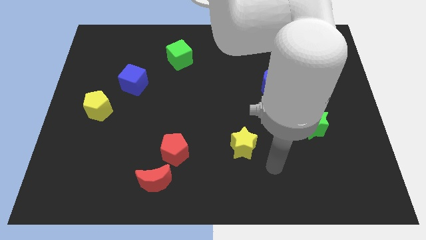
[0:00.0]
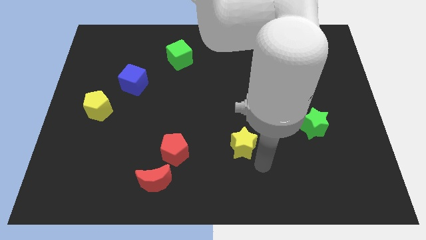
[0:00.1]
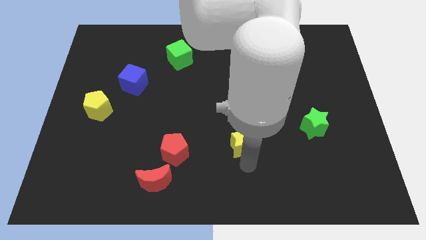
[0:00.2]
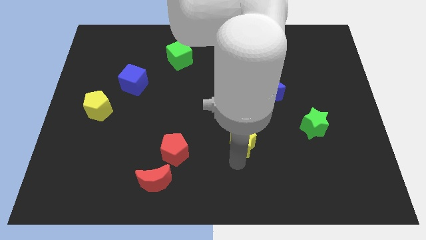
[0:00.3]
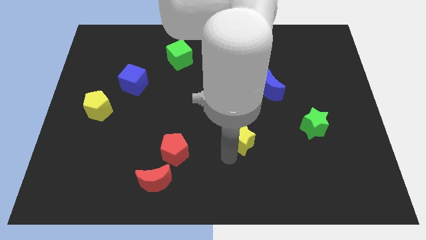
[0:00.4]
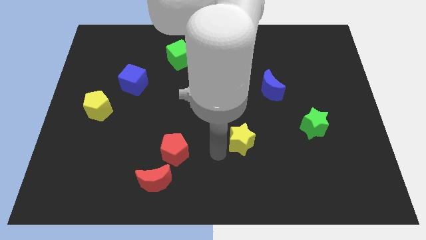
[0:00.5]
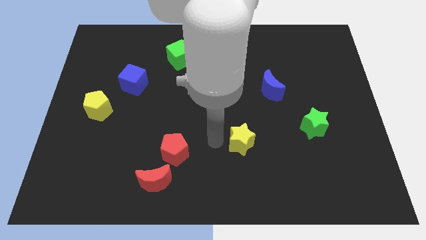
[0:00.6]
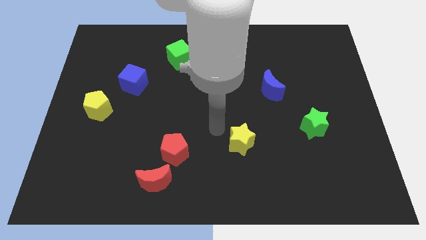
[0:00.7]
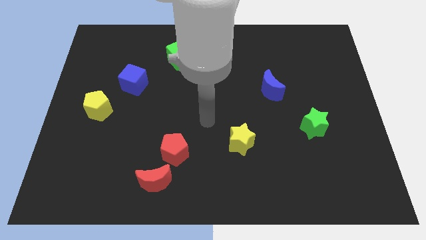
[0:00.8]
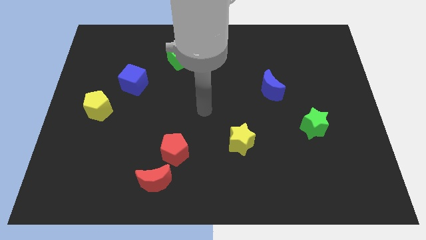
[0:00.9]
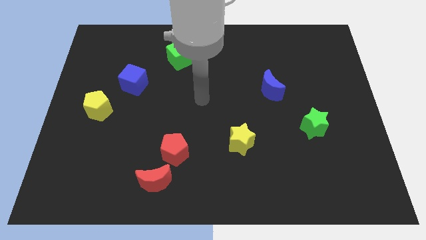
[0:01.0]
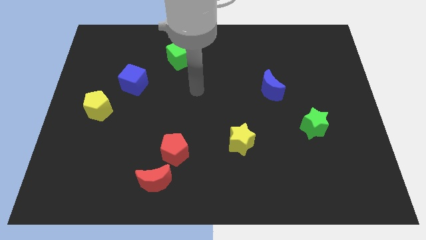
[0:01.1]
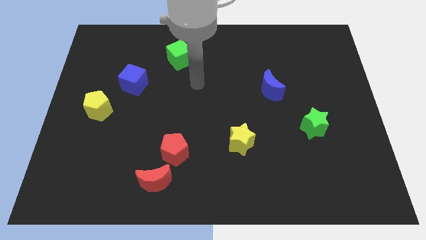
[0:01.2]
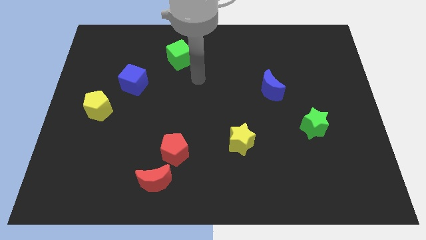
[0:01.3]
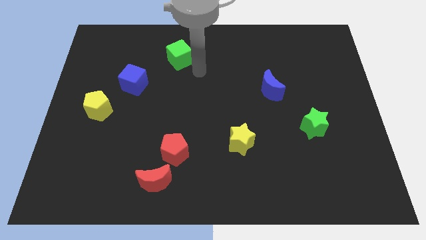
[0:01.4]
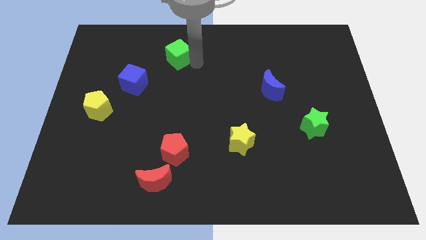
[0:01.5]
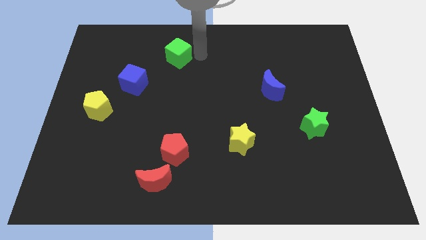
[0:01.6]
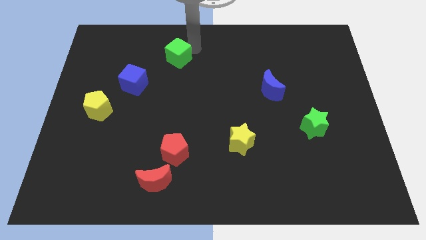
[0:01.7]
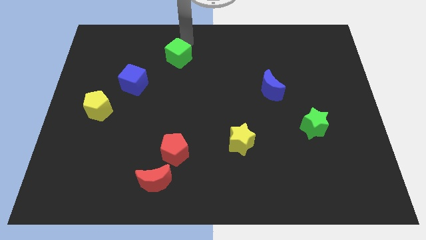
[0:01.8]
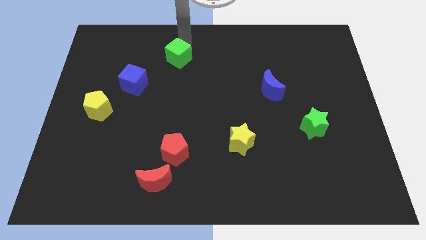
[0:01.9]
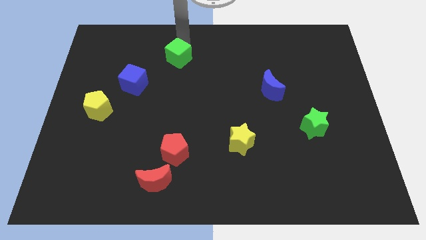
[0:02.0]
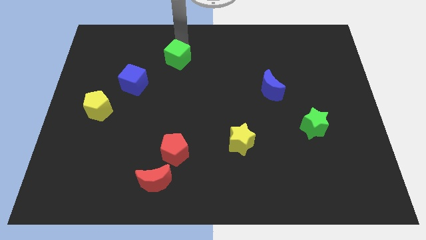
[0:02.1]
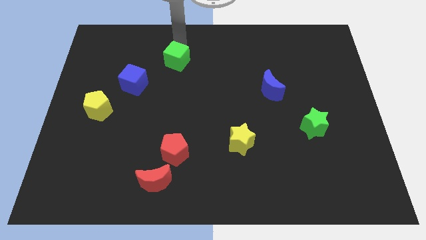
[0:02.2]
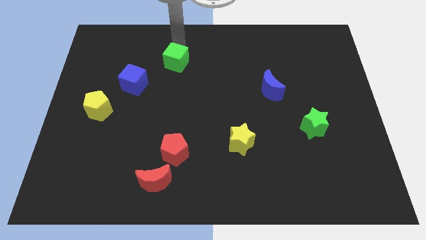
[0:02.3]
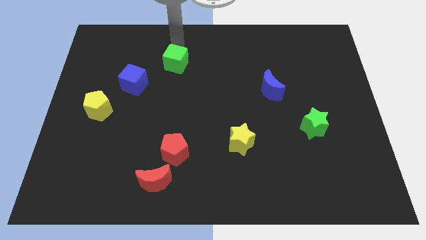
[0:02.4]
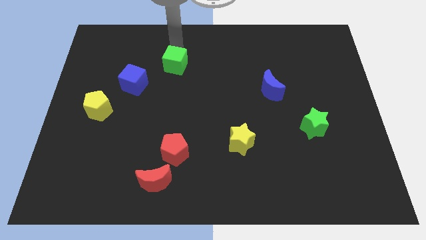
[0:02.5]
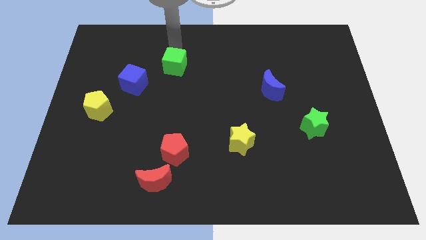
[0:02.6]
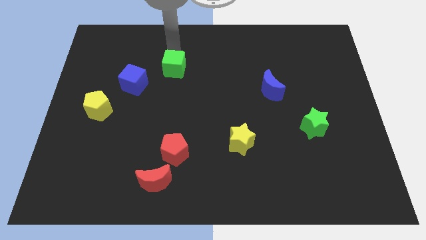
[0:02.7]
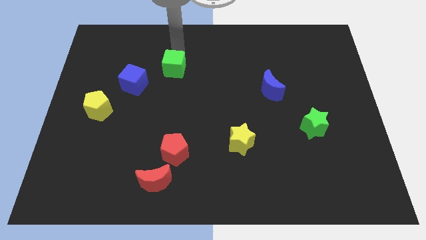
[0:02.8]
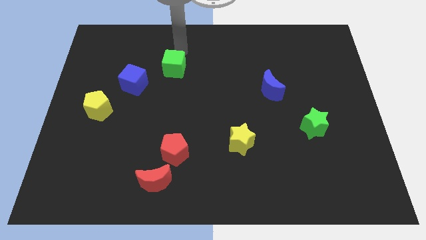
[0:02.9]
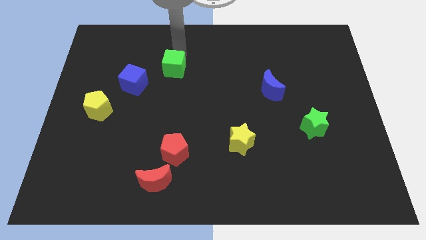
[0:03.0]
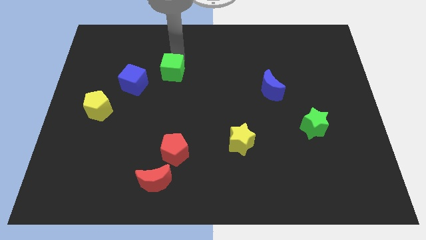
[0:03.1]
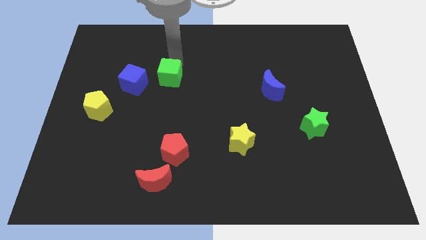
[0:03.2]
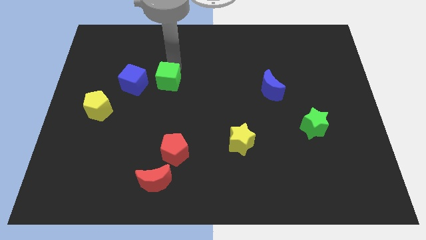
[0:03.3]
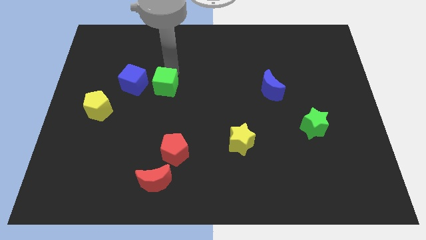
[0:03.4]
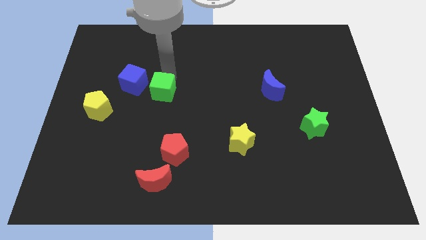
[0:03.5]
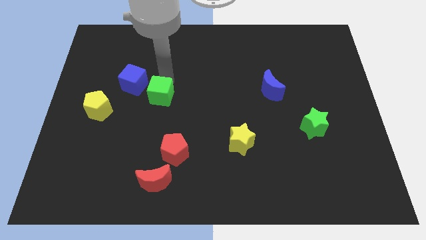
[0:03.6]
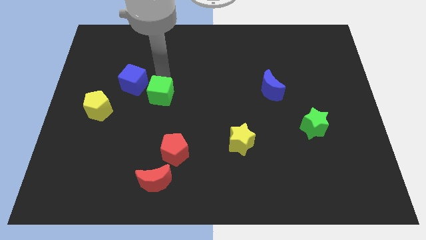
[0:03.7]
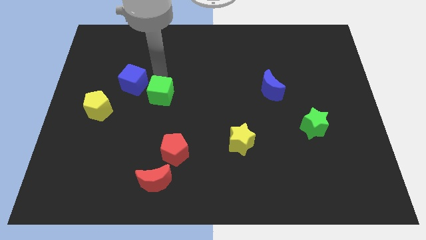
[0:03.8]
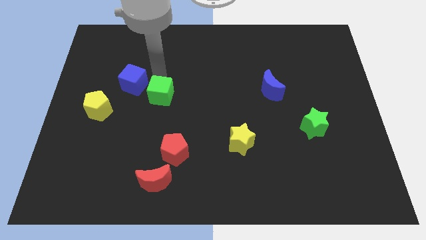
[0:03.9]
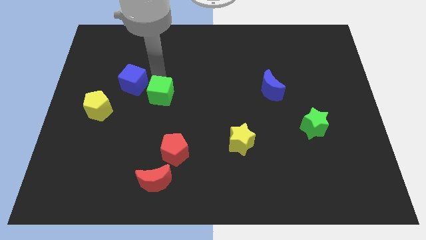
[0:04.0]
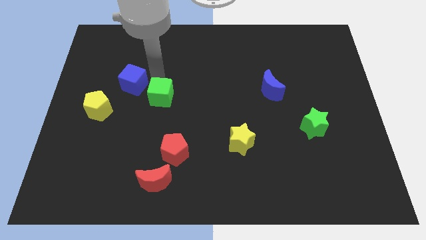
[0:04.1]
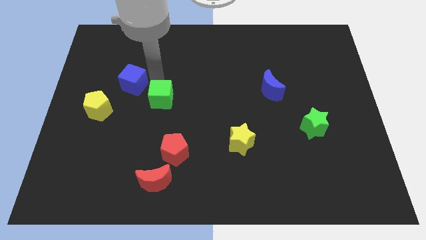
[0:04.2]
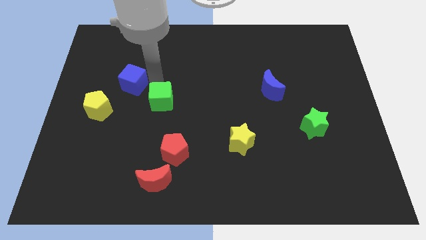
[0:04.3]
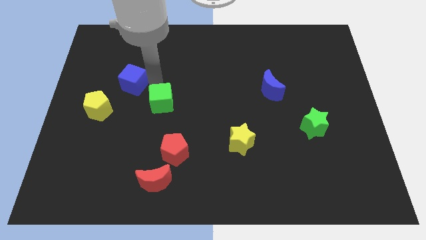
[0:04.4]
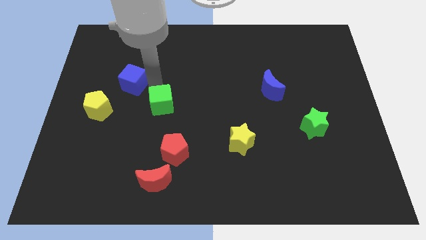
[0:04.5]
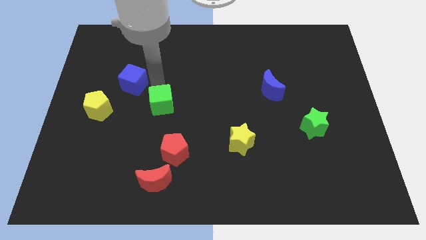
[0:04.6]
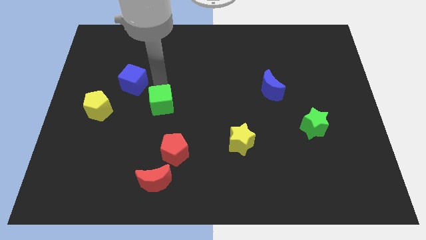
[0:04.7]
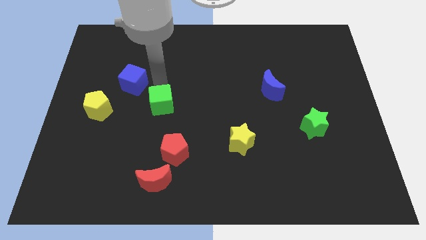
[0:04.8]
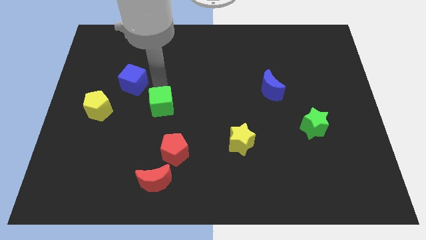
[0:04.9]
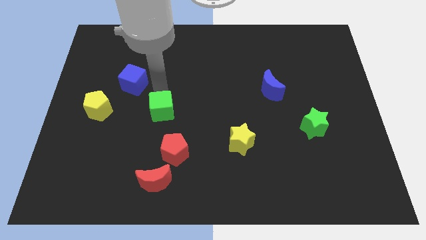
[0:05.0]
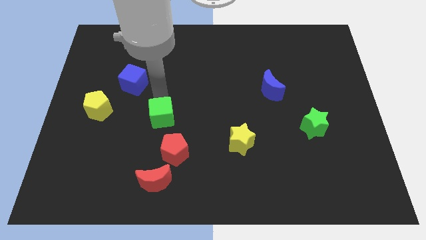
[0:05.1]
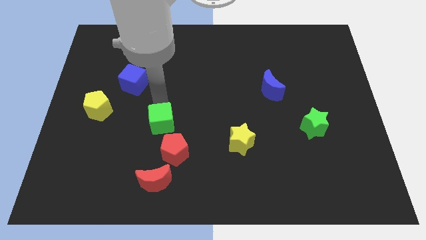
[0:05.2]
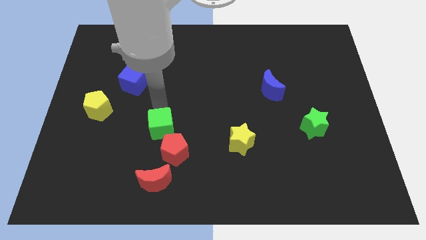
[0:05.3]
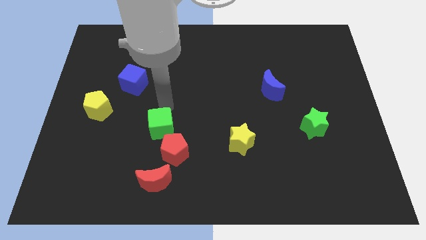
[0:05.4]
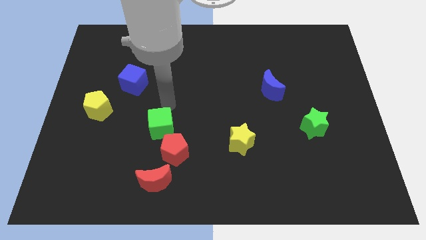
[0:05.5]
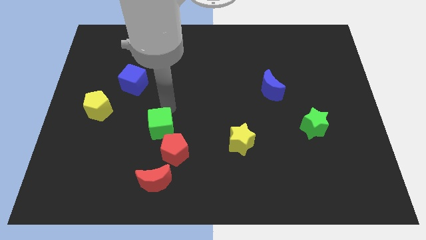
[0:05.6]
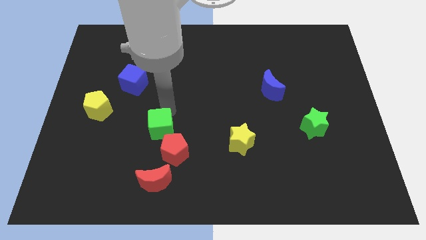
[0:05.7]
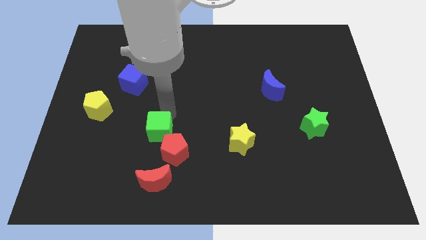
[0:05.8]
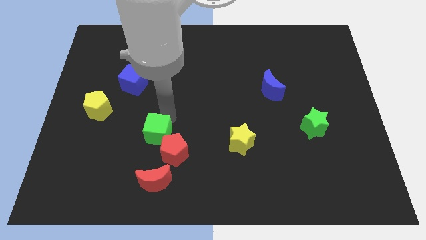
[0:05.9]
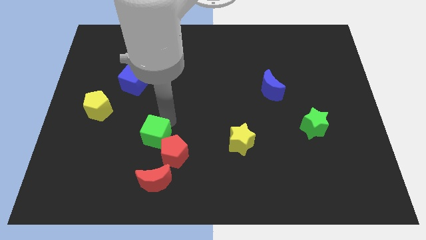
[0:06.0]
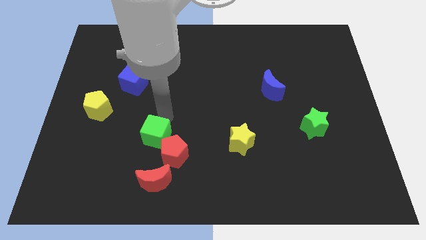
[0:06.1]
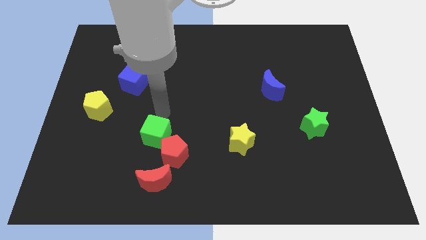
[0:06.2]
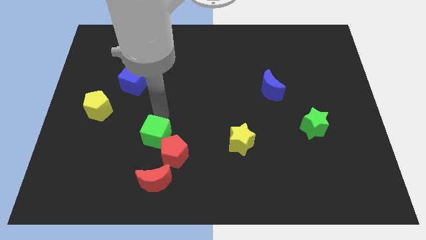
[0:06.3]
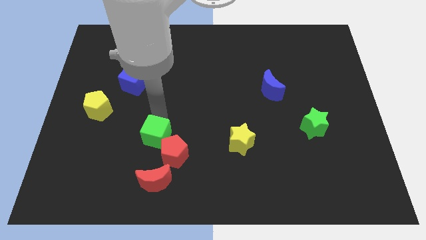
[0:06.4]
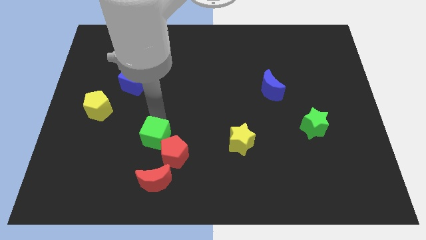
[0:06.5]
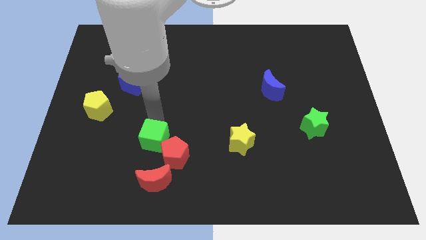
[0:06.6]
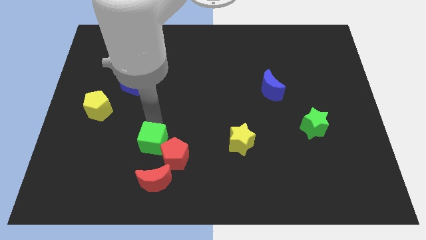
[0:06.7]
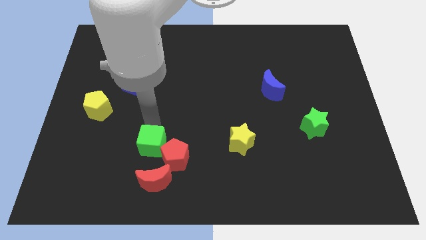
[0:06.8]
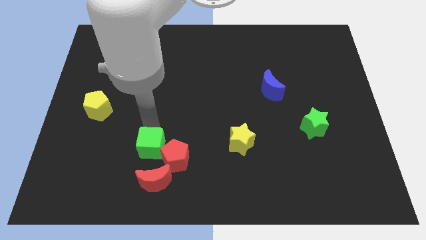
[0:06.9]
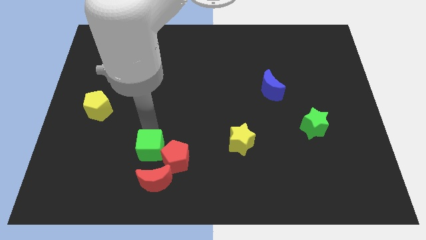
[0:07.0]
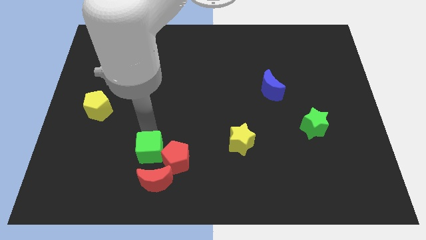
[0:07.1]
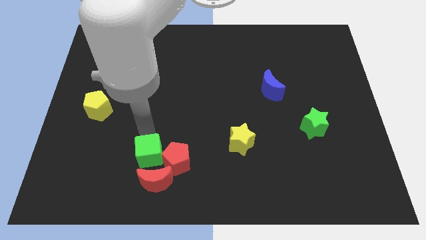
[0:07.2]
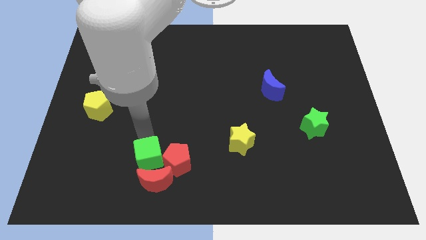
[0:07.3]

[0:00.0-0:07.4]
push the green cube towards the red moon
